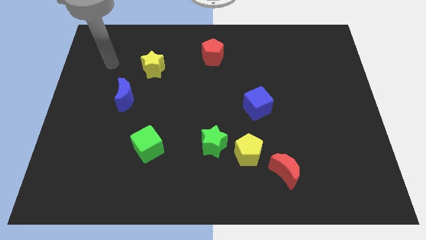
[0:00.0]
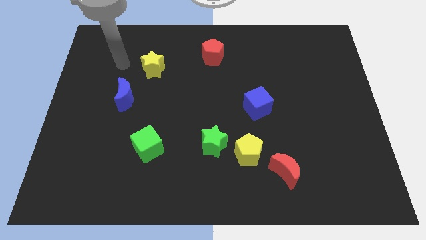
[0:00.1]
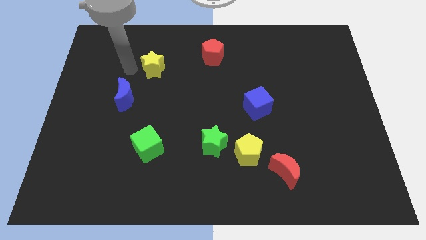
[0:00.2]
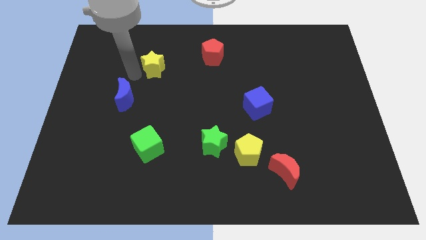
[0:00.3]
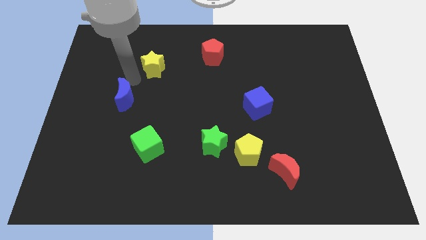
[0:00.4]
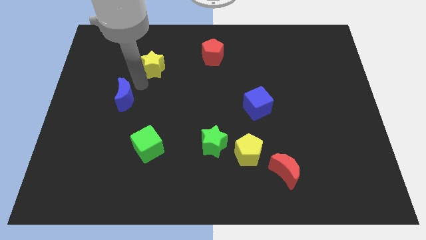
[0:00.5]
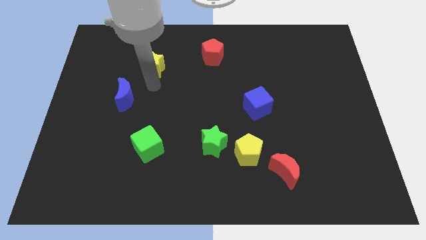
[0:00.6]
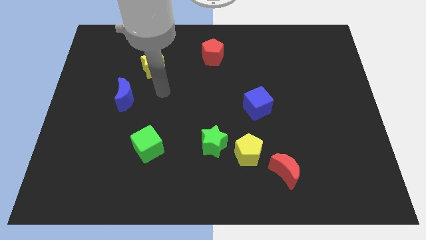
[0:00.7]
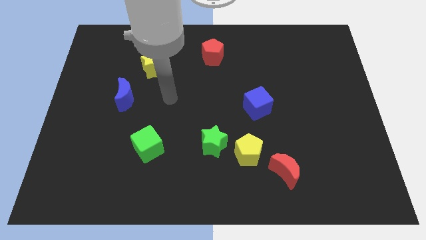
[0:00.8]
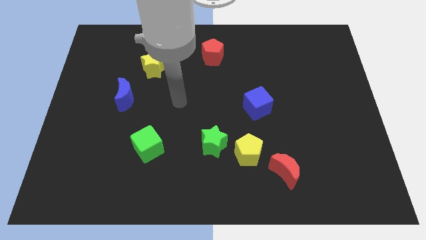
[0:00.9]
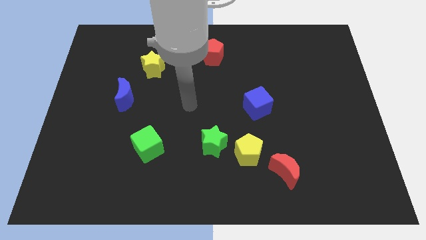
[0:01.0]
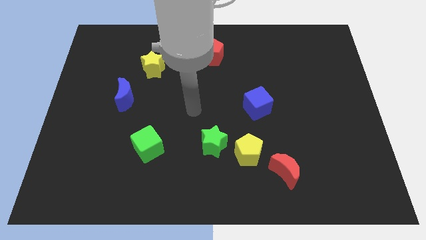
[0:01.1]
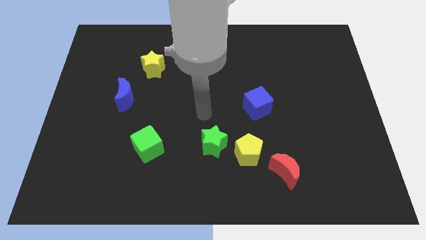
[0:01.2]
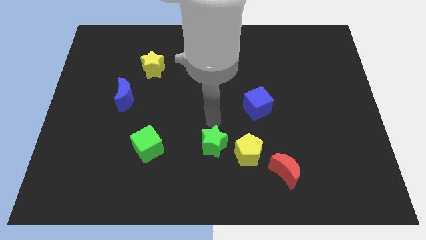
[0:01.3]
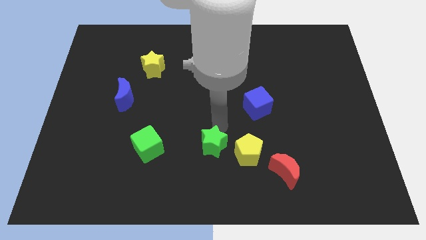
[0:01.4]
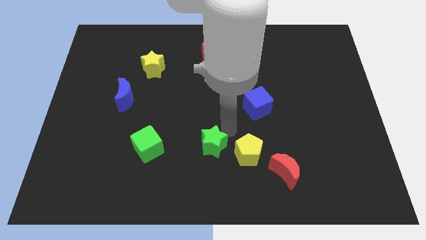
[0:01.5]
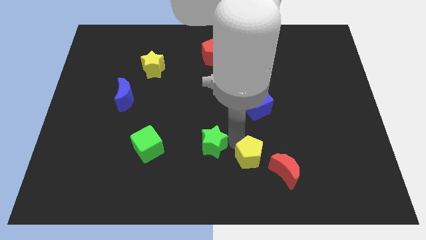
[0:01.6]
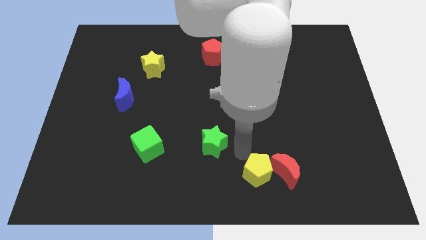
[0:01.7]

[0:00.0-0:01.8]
pull the green star apart from the yellow pentagon

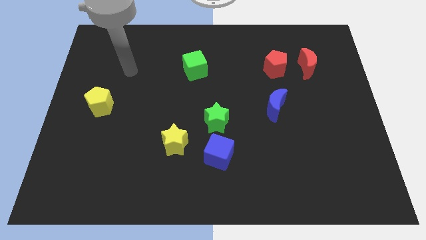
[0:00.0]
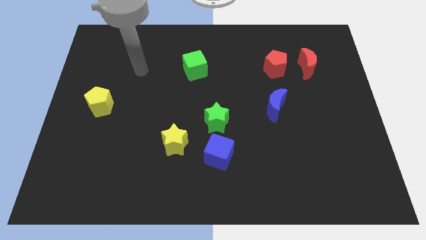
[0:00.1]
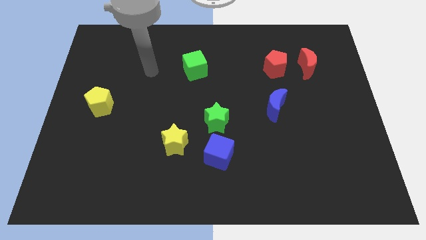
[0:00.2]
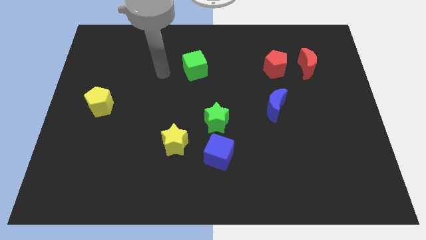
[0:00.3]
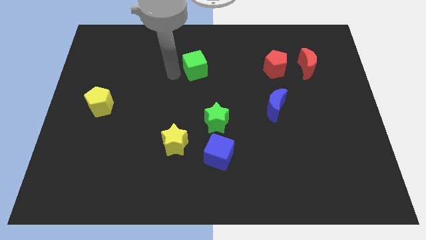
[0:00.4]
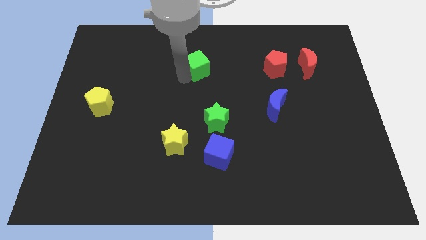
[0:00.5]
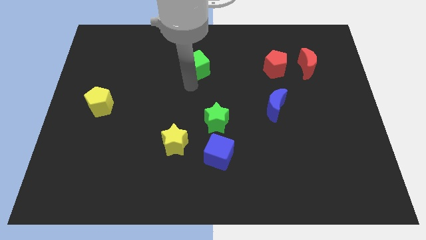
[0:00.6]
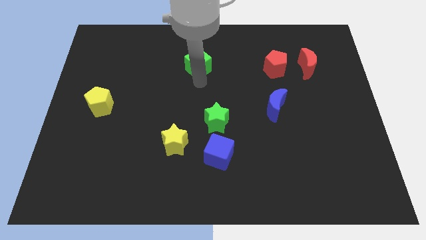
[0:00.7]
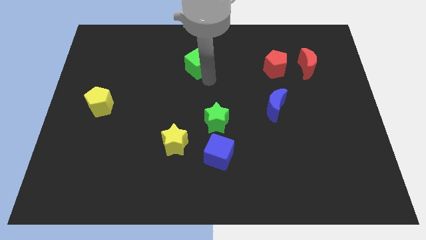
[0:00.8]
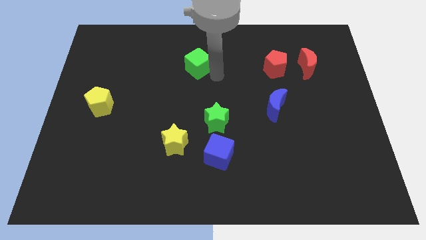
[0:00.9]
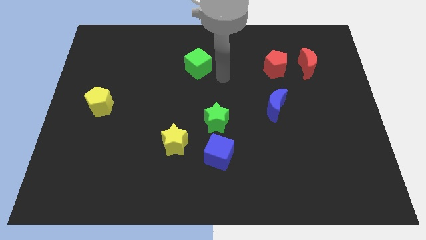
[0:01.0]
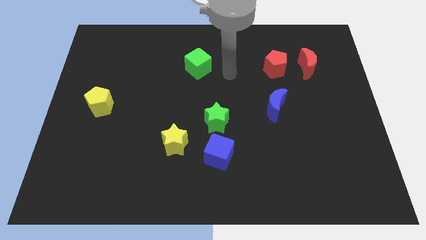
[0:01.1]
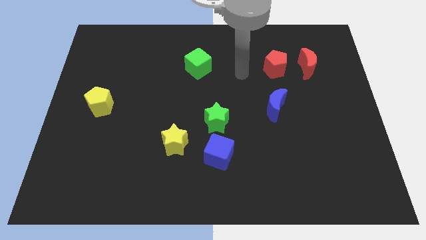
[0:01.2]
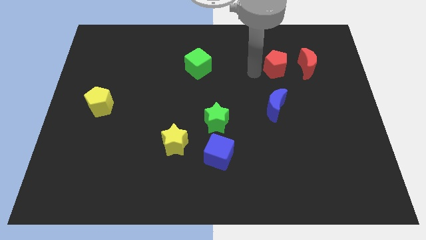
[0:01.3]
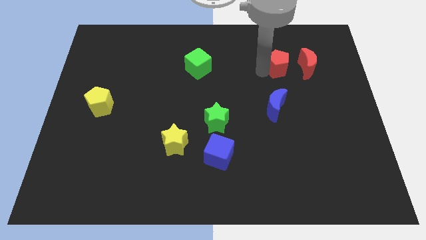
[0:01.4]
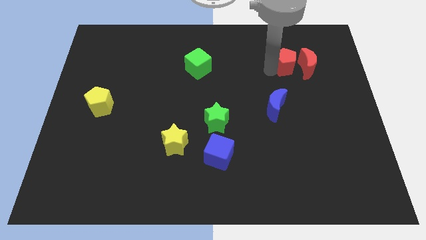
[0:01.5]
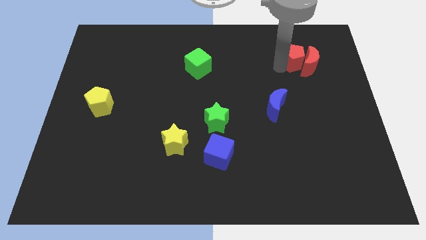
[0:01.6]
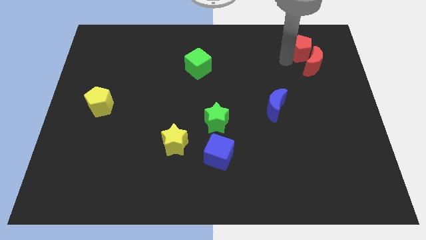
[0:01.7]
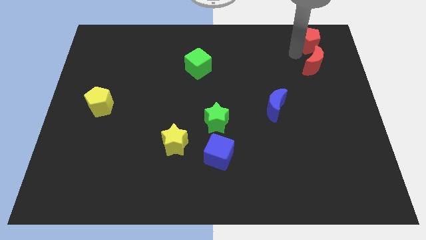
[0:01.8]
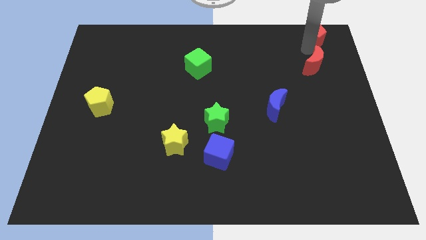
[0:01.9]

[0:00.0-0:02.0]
pull the red moon apart from the red pentagon

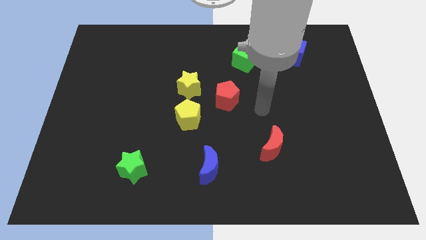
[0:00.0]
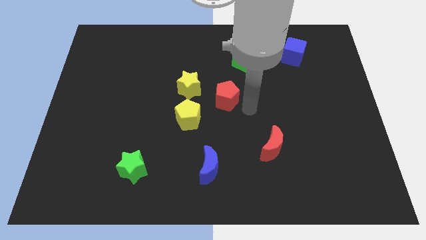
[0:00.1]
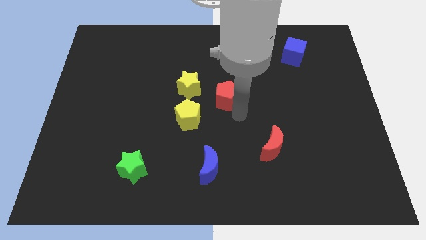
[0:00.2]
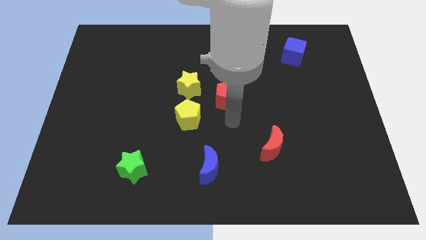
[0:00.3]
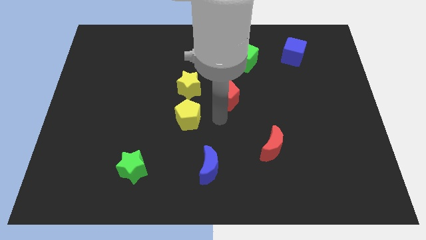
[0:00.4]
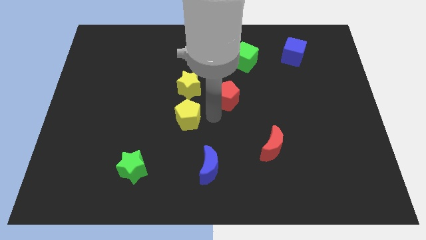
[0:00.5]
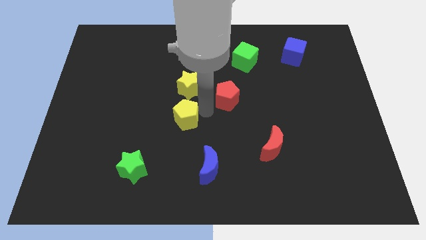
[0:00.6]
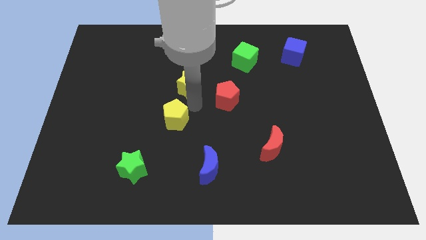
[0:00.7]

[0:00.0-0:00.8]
move the yellow pentagon away from the yellow star

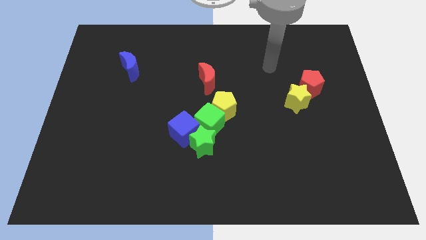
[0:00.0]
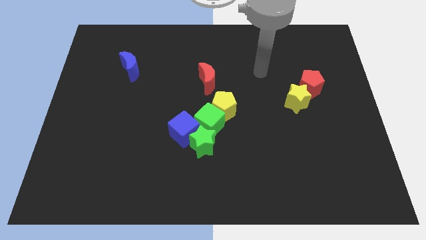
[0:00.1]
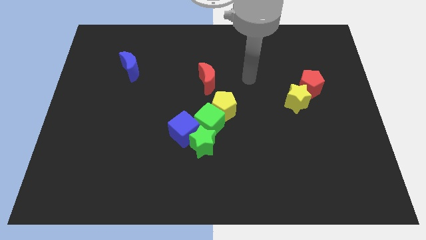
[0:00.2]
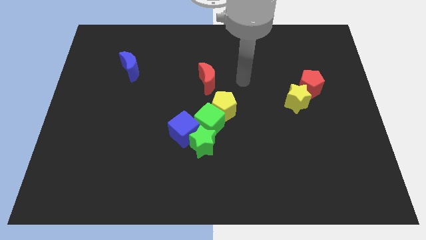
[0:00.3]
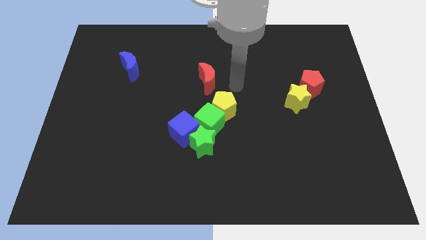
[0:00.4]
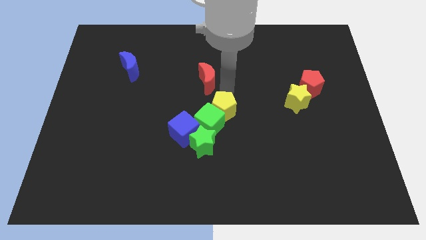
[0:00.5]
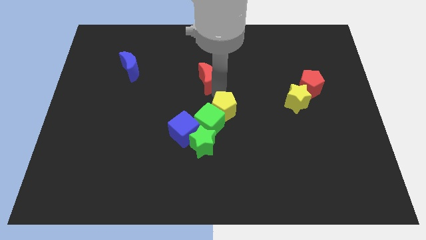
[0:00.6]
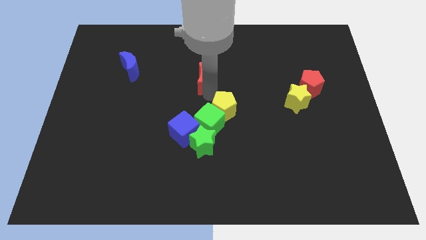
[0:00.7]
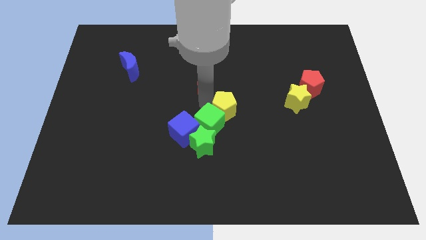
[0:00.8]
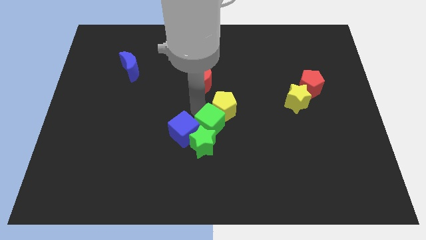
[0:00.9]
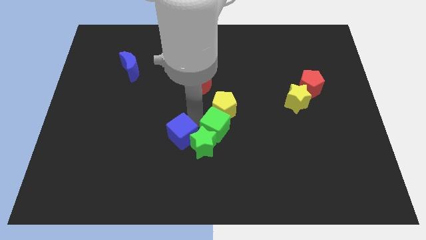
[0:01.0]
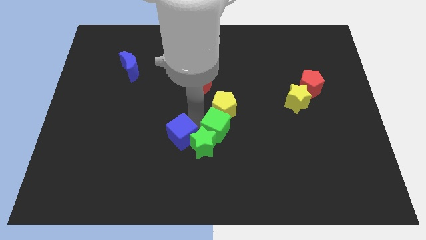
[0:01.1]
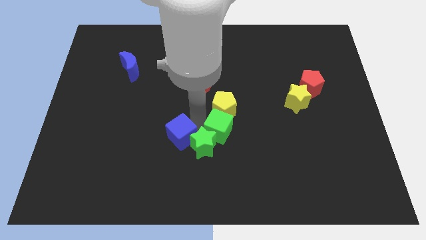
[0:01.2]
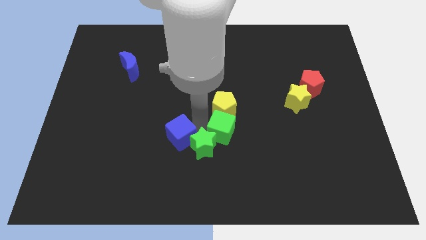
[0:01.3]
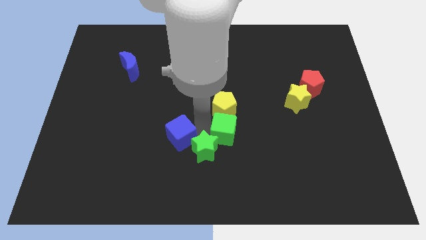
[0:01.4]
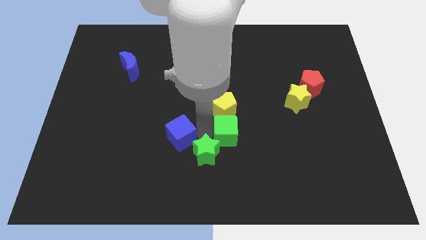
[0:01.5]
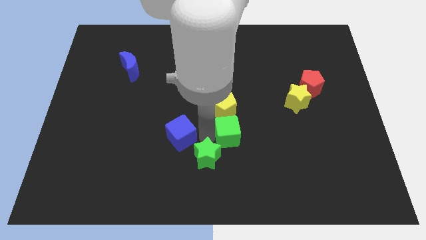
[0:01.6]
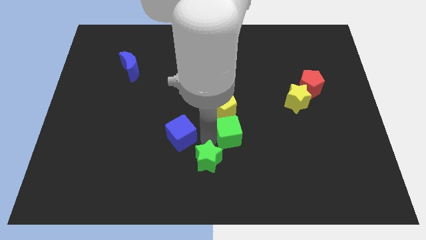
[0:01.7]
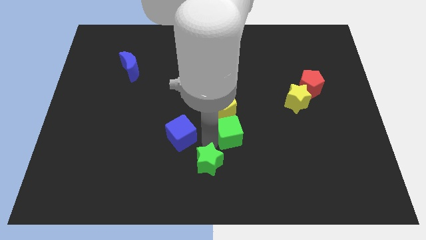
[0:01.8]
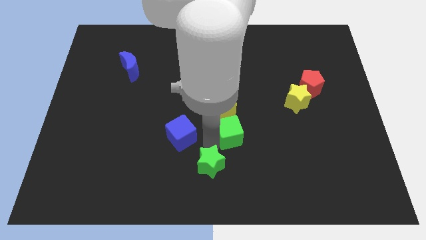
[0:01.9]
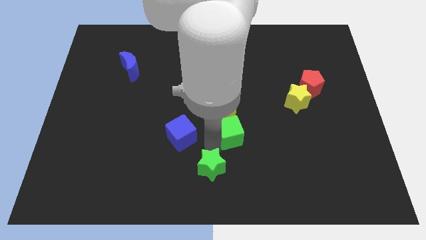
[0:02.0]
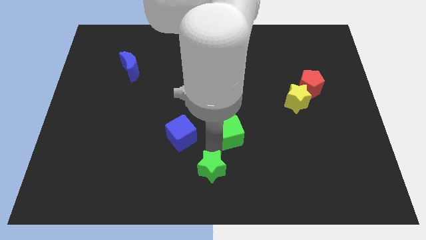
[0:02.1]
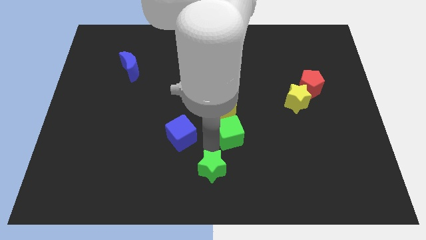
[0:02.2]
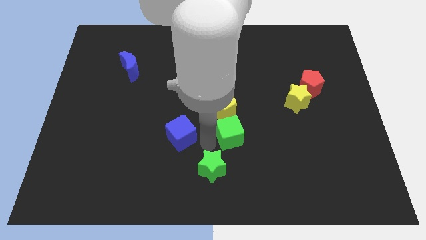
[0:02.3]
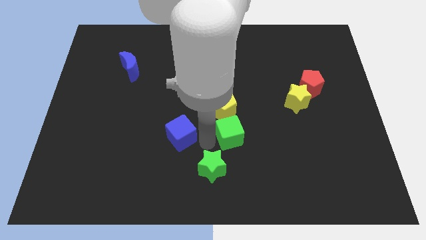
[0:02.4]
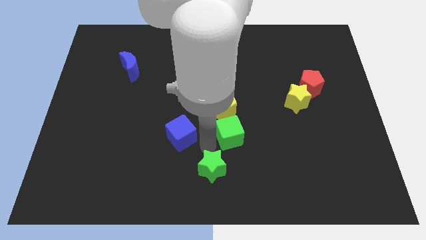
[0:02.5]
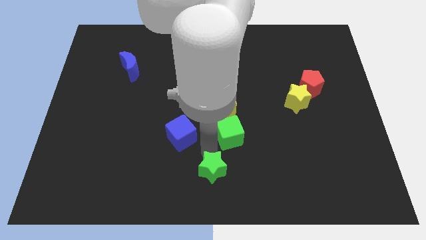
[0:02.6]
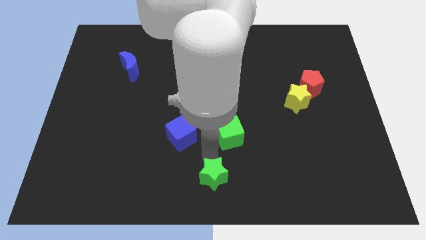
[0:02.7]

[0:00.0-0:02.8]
move the green star away from the blue cube and green cube

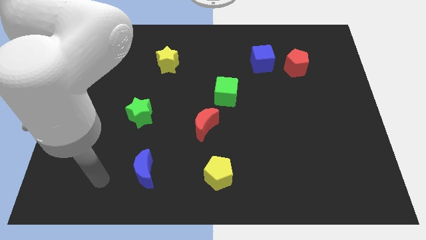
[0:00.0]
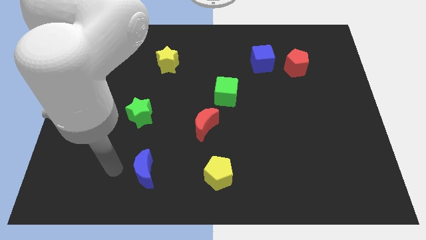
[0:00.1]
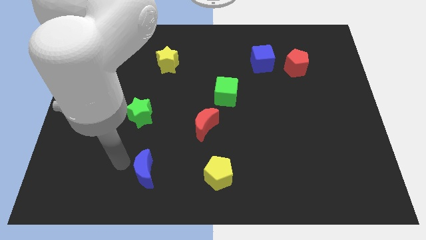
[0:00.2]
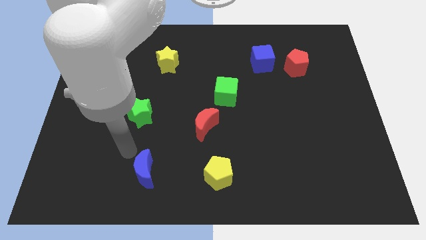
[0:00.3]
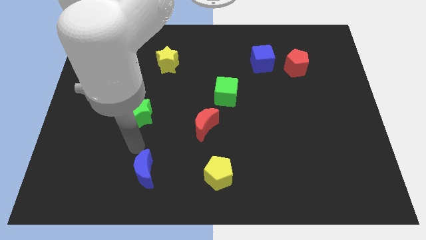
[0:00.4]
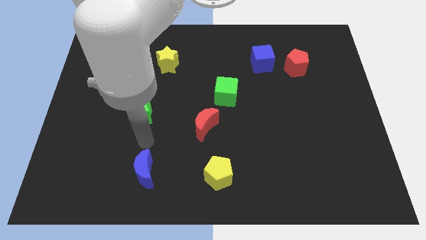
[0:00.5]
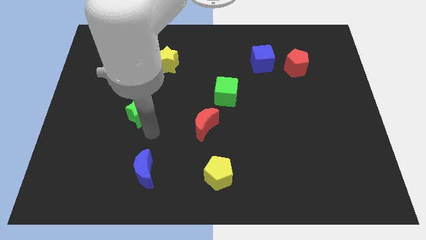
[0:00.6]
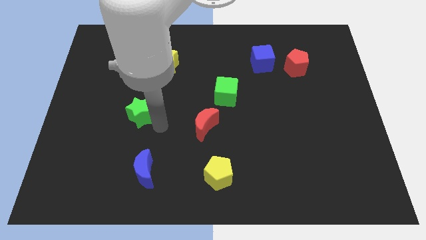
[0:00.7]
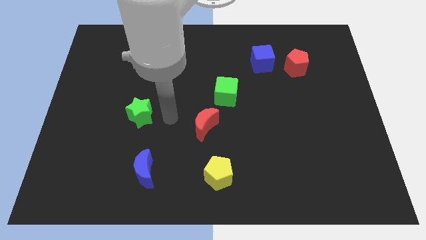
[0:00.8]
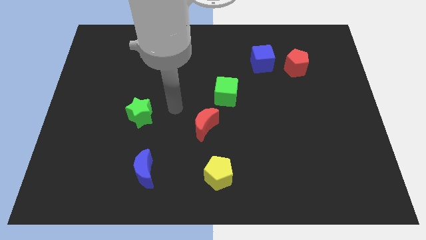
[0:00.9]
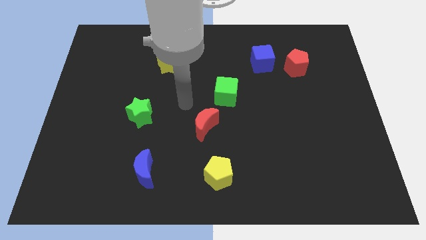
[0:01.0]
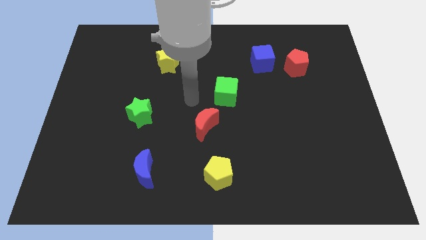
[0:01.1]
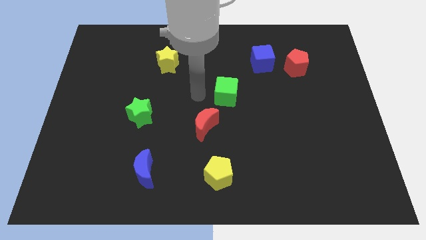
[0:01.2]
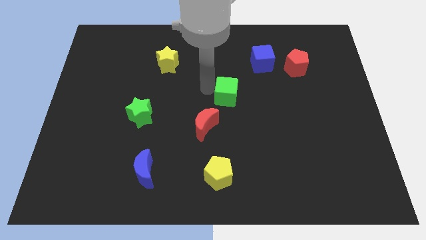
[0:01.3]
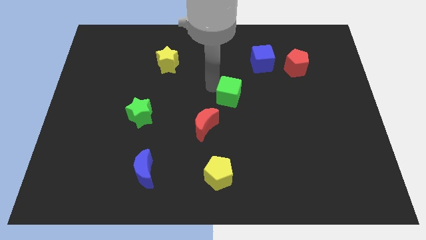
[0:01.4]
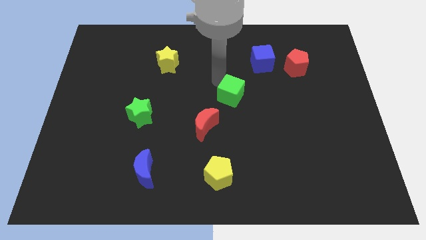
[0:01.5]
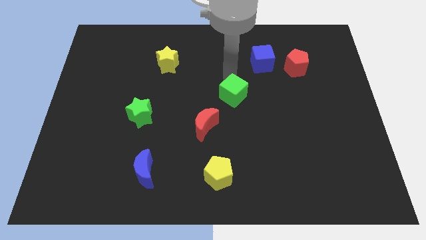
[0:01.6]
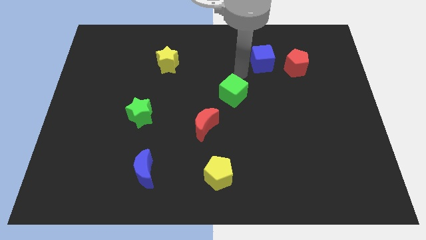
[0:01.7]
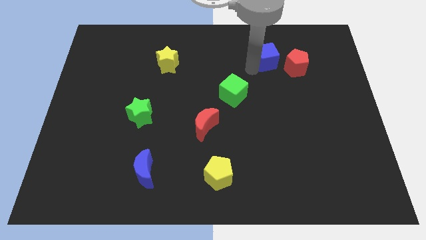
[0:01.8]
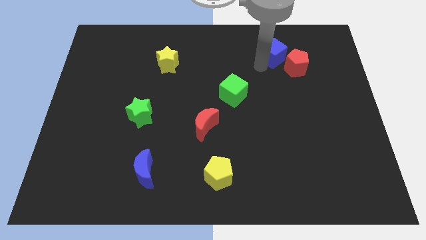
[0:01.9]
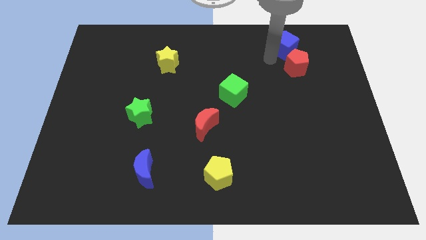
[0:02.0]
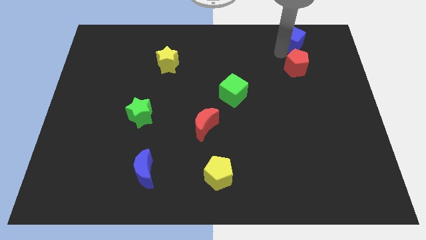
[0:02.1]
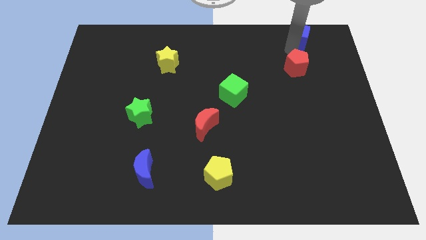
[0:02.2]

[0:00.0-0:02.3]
move the red pentagon away from the blue cube
